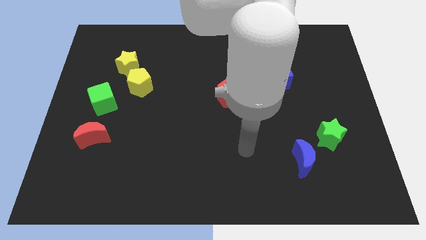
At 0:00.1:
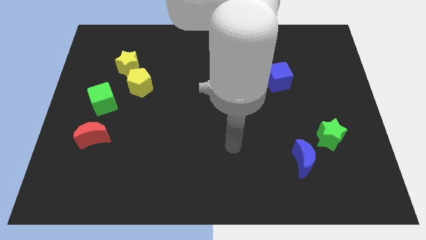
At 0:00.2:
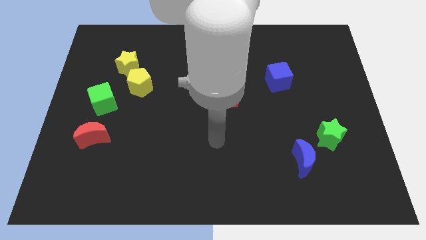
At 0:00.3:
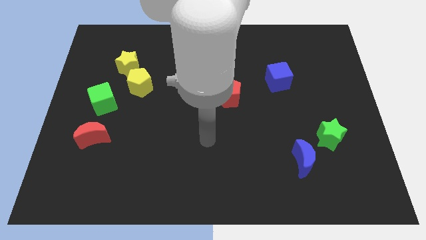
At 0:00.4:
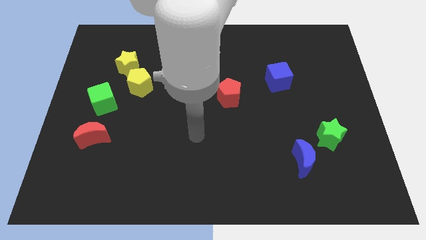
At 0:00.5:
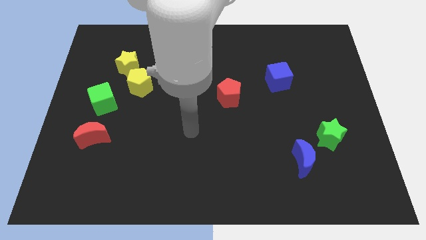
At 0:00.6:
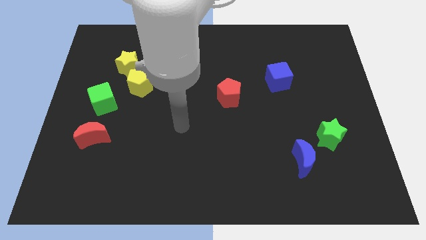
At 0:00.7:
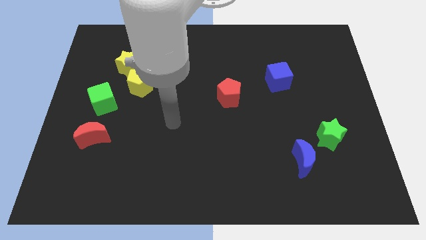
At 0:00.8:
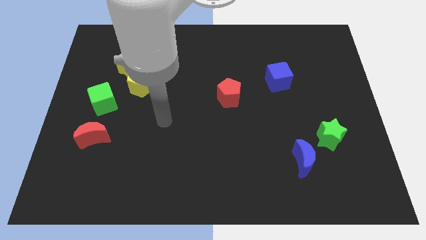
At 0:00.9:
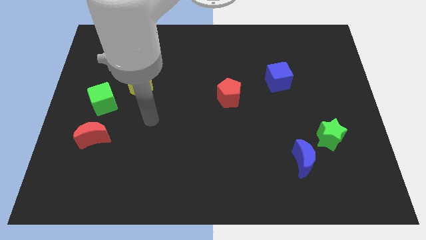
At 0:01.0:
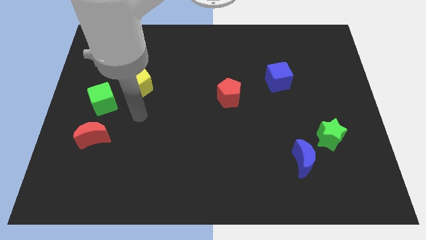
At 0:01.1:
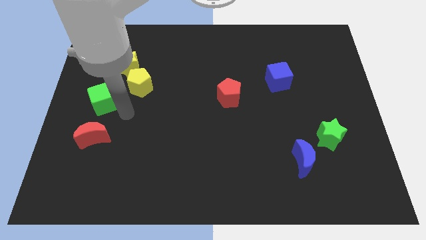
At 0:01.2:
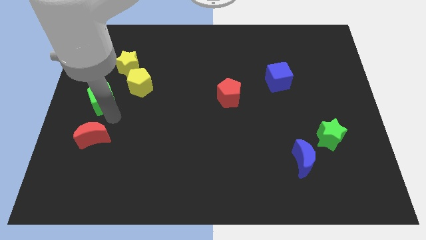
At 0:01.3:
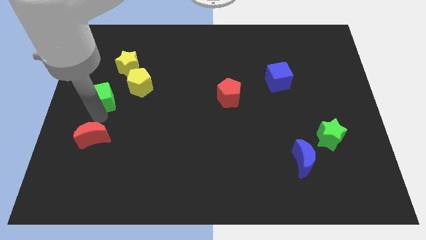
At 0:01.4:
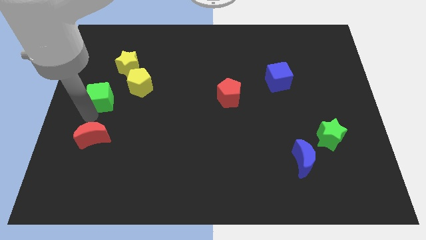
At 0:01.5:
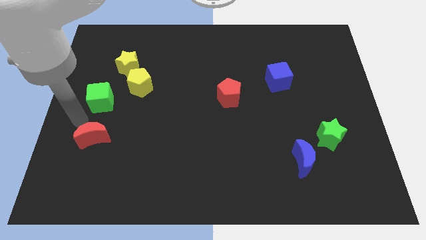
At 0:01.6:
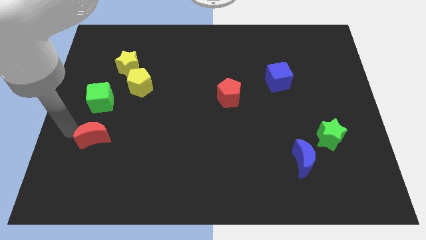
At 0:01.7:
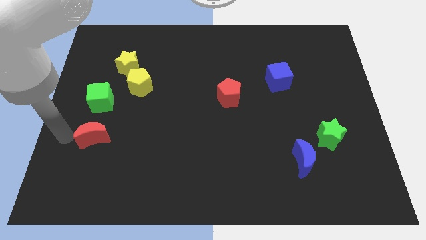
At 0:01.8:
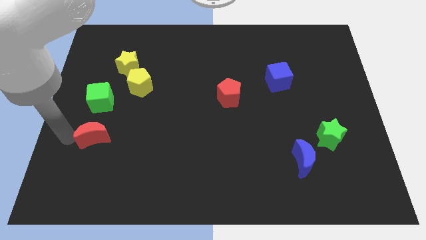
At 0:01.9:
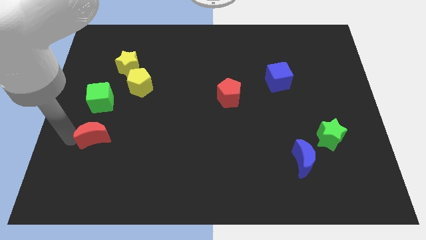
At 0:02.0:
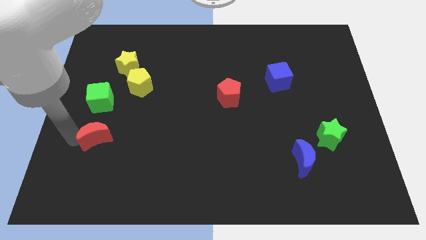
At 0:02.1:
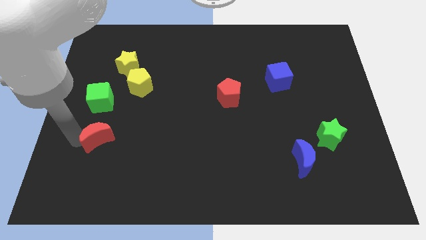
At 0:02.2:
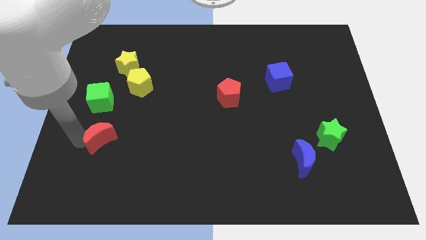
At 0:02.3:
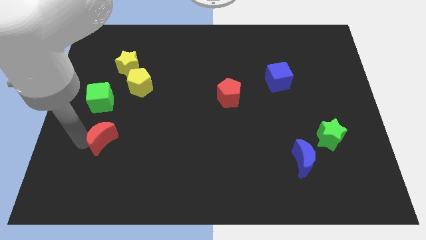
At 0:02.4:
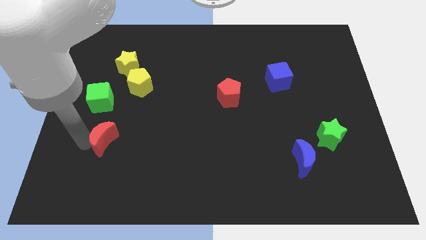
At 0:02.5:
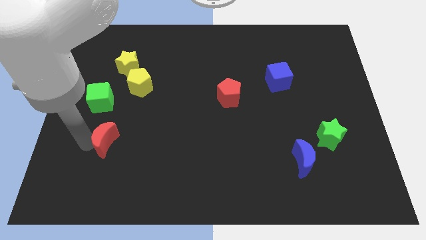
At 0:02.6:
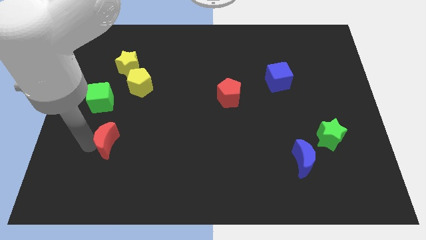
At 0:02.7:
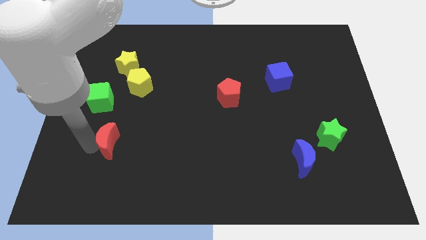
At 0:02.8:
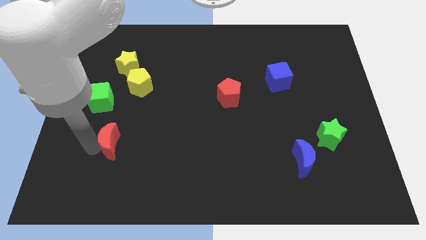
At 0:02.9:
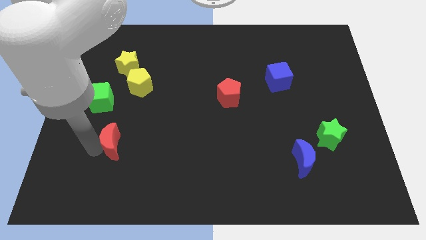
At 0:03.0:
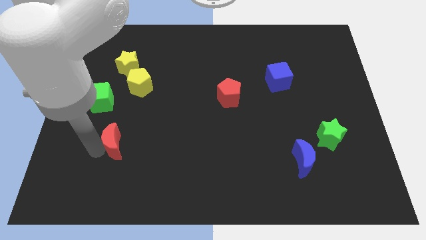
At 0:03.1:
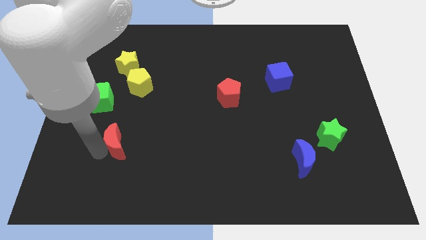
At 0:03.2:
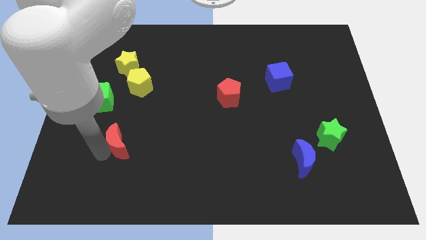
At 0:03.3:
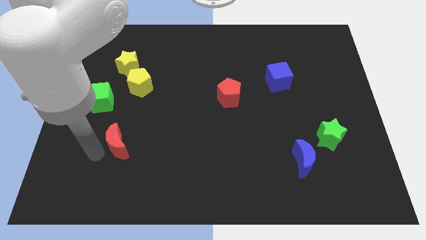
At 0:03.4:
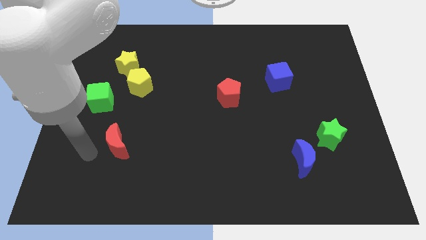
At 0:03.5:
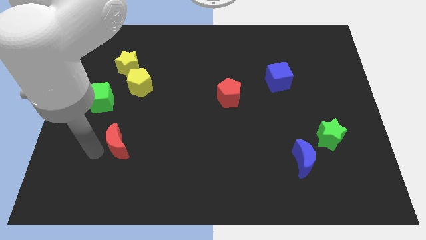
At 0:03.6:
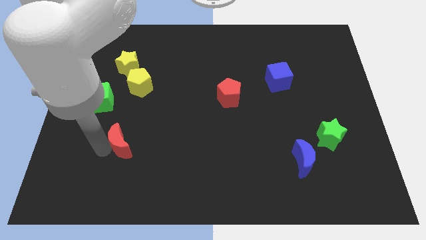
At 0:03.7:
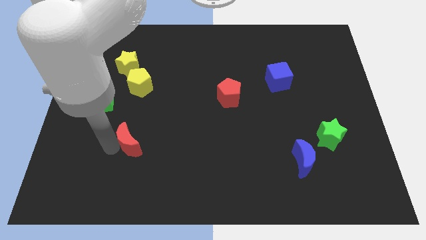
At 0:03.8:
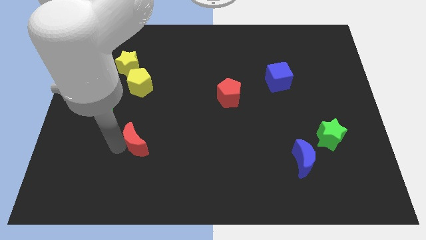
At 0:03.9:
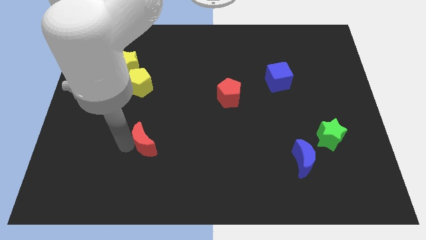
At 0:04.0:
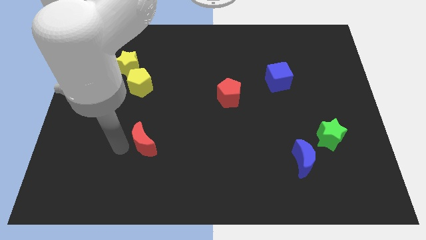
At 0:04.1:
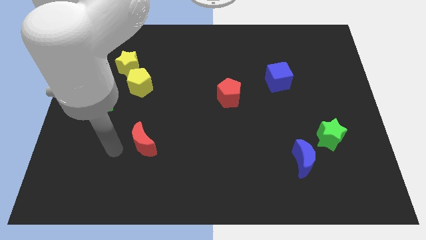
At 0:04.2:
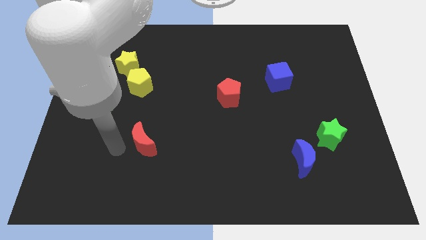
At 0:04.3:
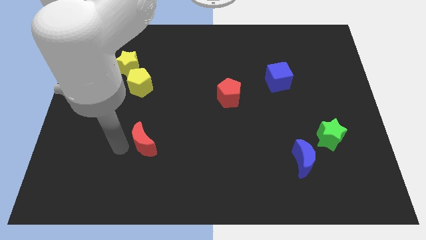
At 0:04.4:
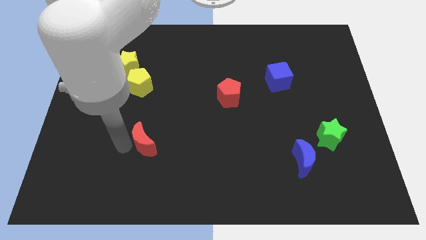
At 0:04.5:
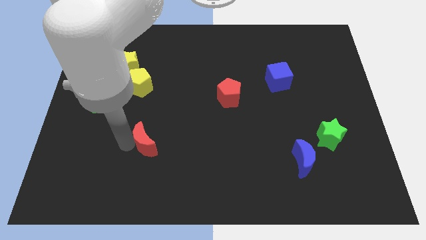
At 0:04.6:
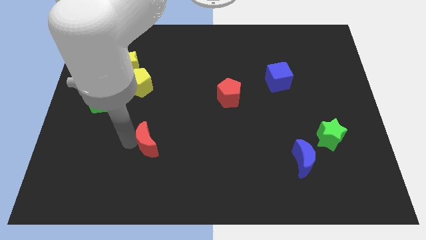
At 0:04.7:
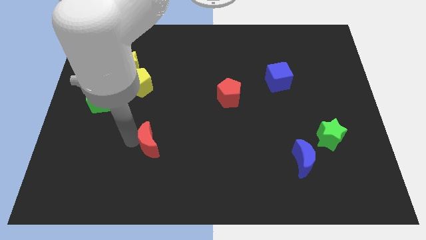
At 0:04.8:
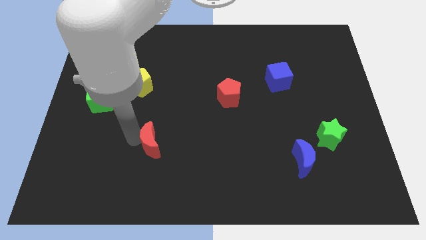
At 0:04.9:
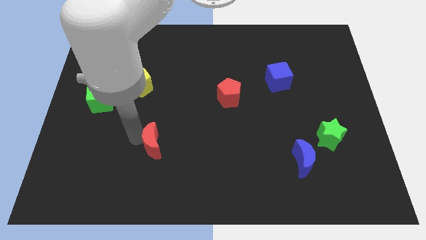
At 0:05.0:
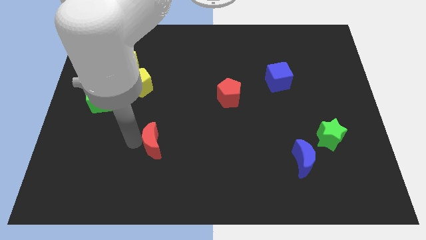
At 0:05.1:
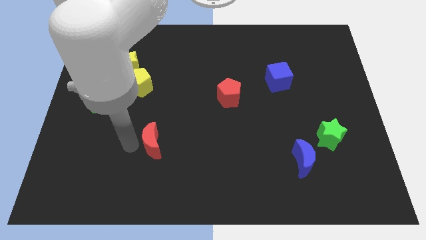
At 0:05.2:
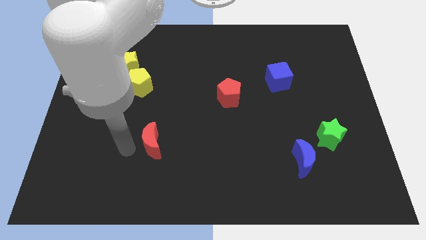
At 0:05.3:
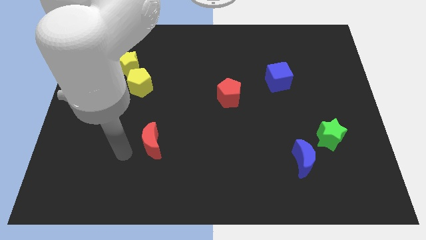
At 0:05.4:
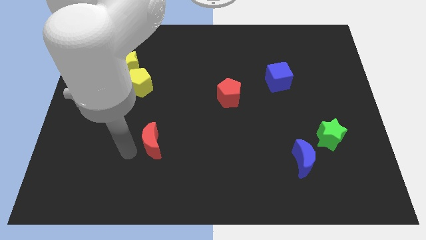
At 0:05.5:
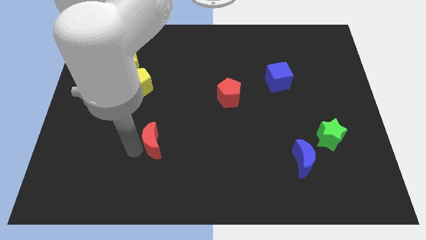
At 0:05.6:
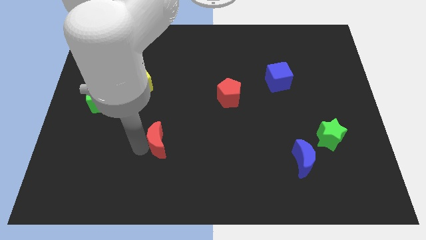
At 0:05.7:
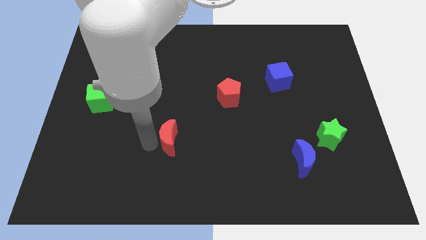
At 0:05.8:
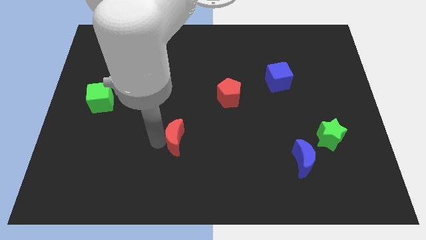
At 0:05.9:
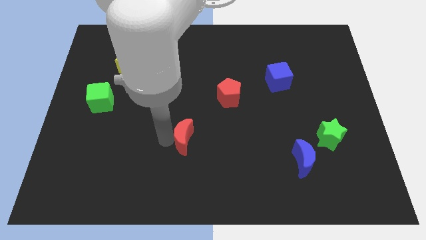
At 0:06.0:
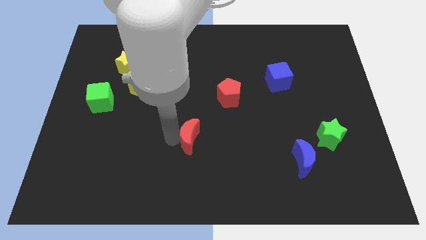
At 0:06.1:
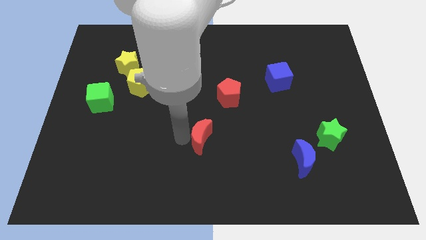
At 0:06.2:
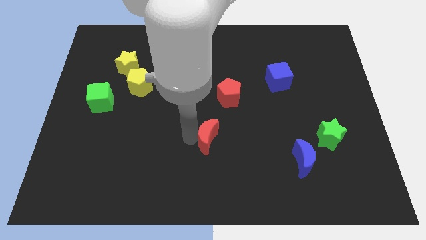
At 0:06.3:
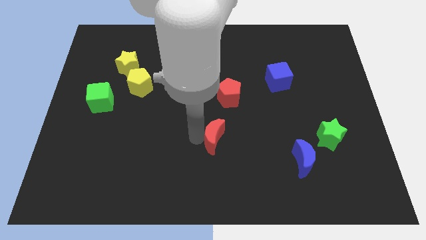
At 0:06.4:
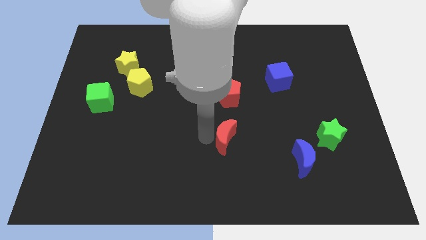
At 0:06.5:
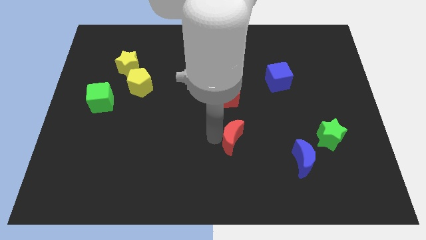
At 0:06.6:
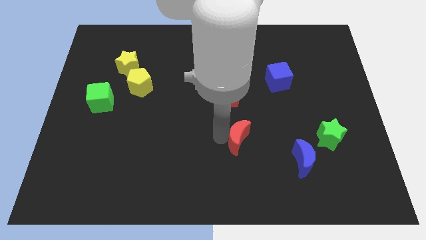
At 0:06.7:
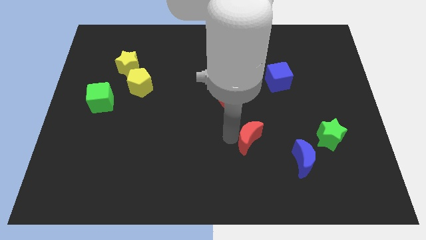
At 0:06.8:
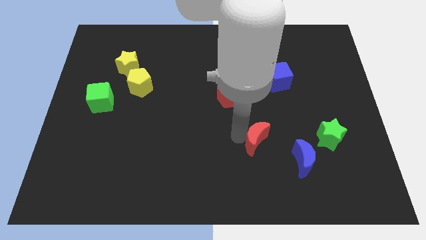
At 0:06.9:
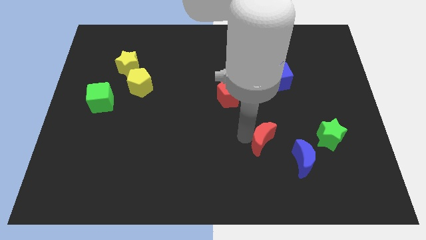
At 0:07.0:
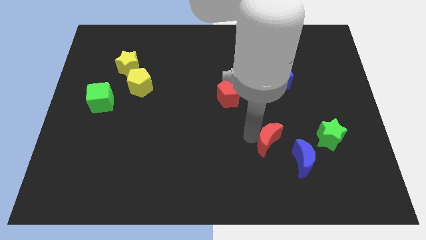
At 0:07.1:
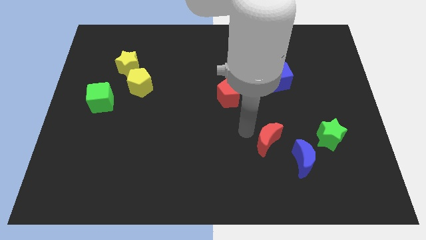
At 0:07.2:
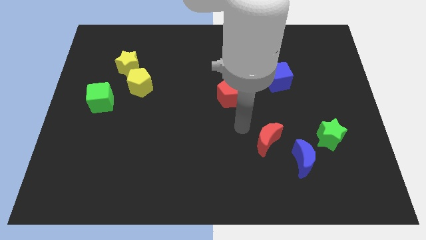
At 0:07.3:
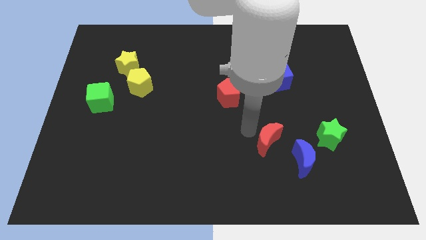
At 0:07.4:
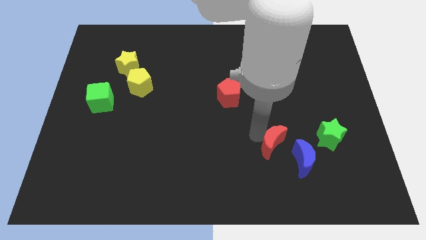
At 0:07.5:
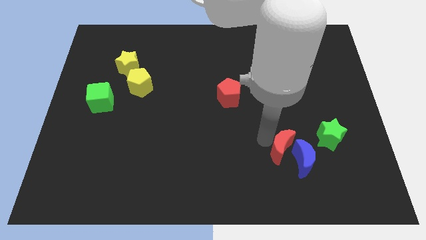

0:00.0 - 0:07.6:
put the red moon towards the blue moon

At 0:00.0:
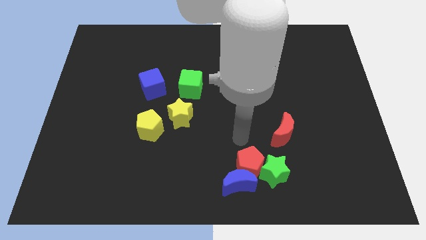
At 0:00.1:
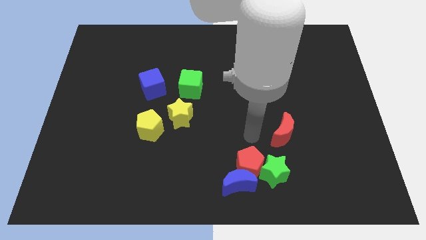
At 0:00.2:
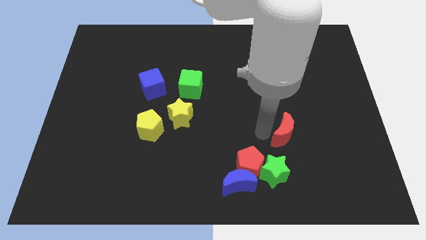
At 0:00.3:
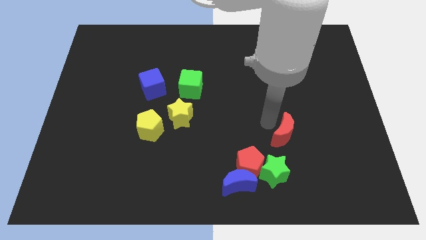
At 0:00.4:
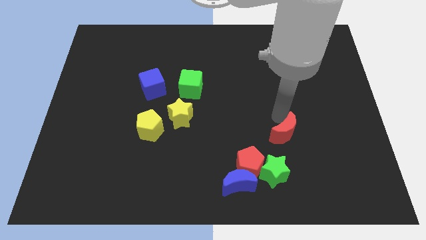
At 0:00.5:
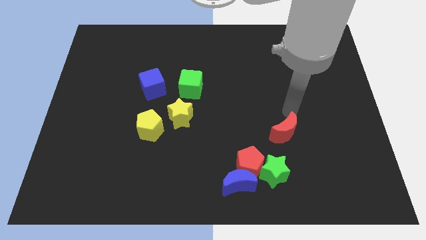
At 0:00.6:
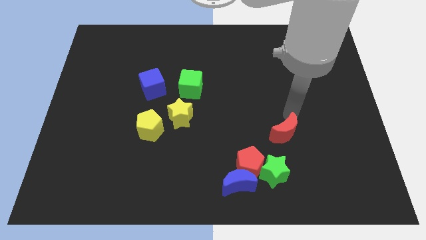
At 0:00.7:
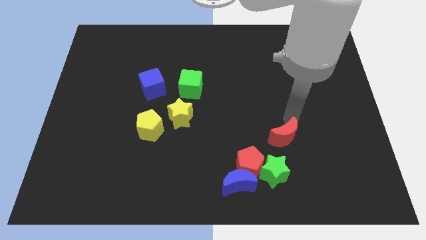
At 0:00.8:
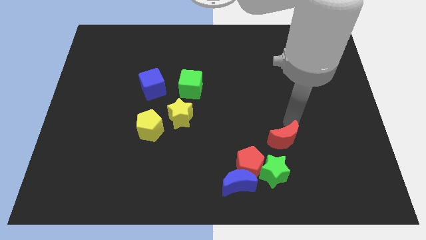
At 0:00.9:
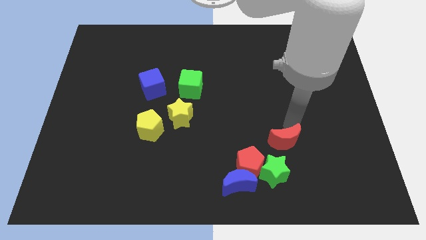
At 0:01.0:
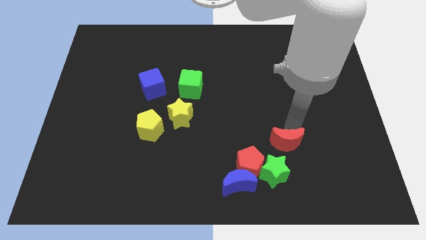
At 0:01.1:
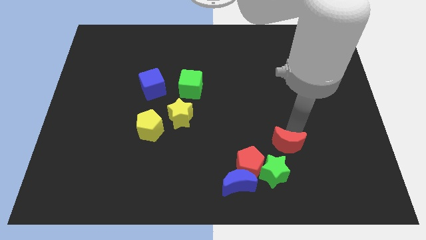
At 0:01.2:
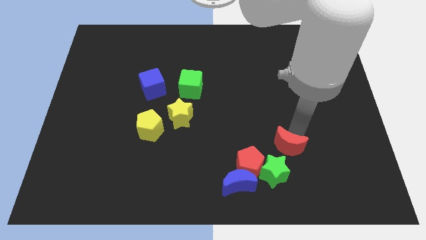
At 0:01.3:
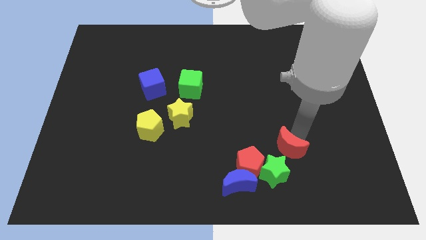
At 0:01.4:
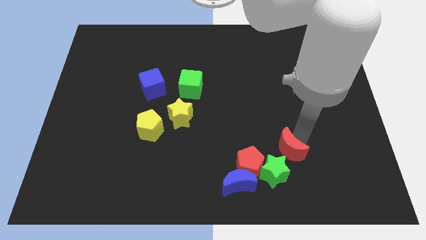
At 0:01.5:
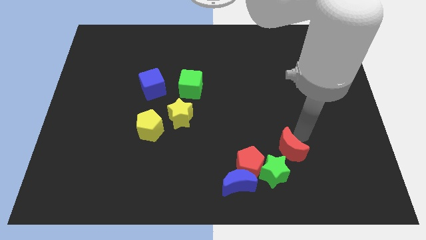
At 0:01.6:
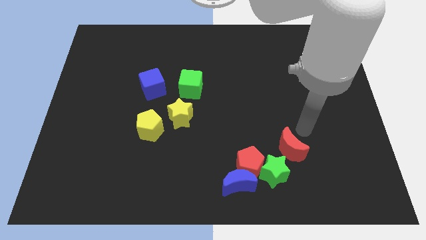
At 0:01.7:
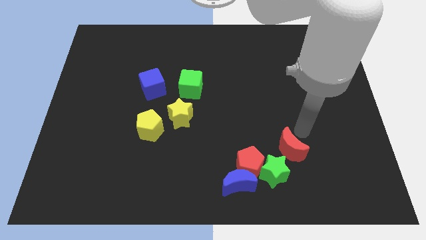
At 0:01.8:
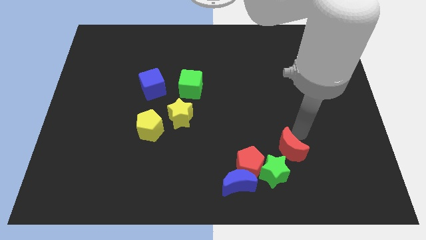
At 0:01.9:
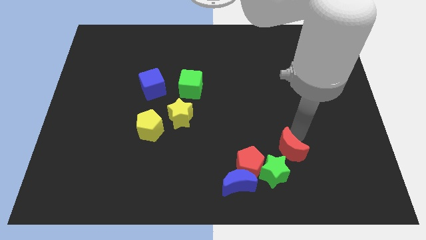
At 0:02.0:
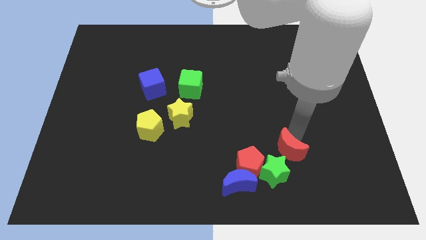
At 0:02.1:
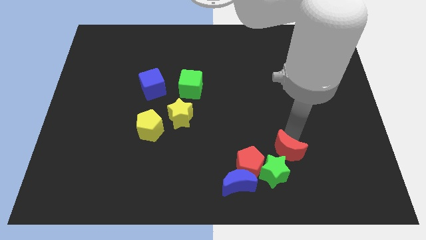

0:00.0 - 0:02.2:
put the red moon next to the green star
